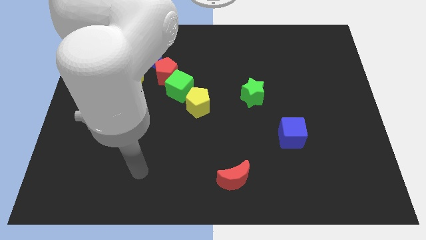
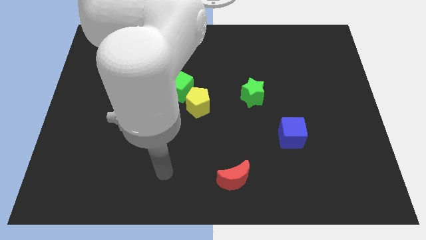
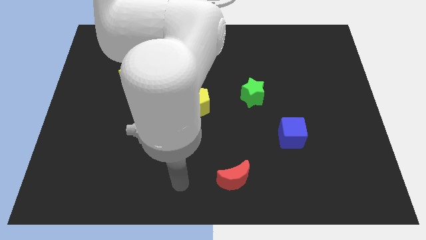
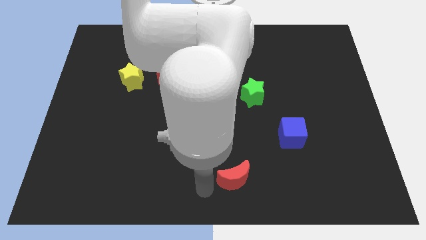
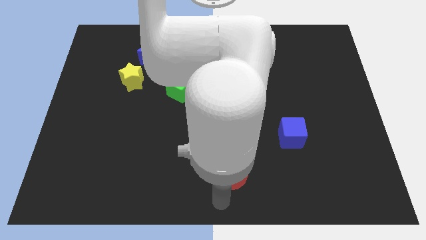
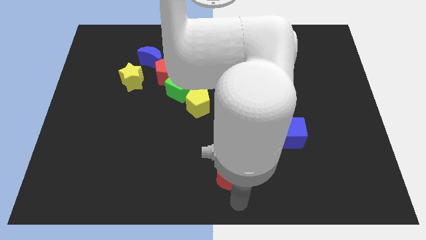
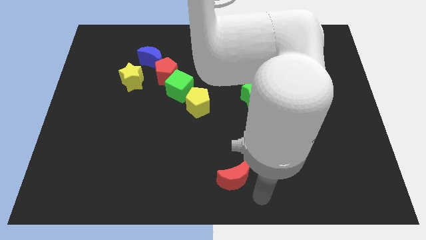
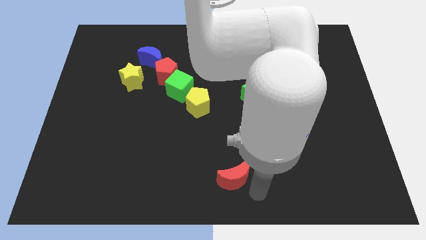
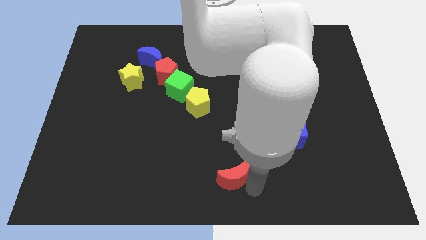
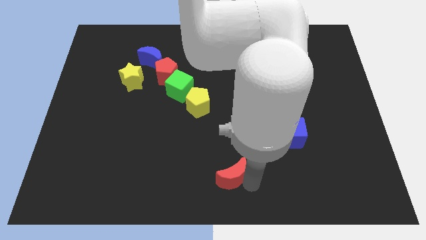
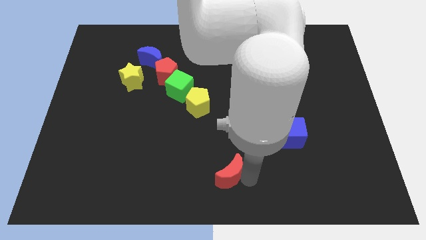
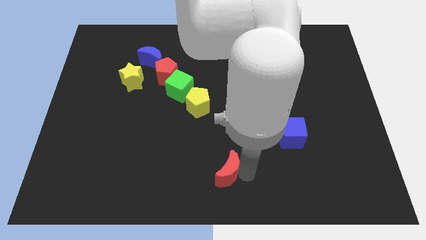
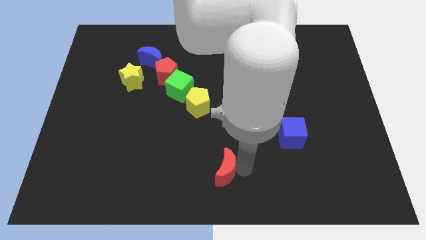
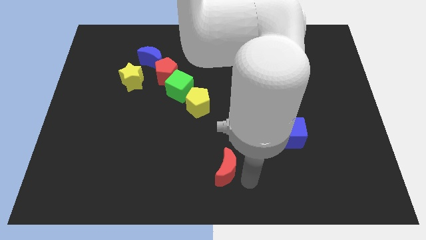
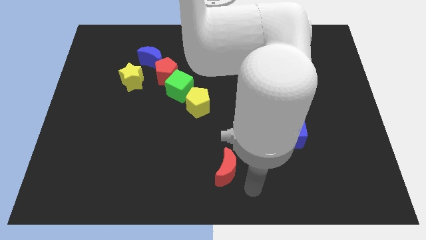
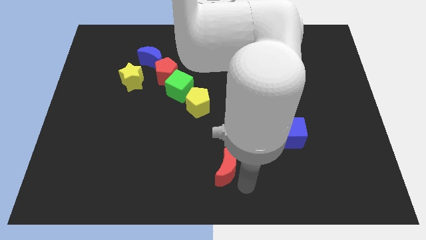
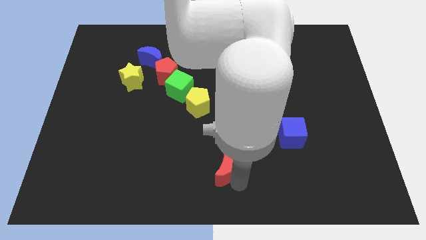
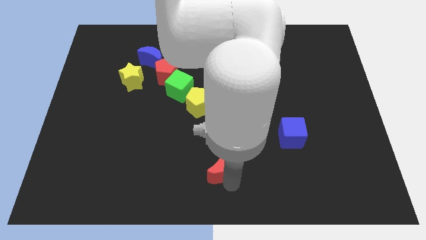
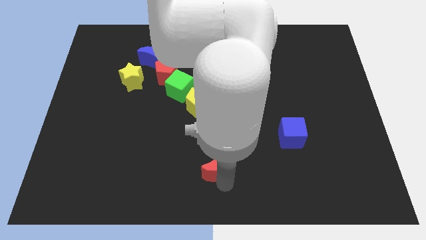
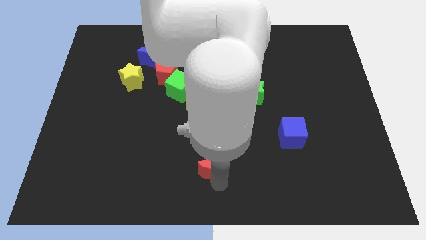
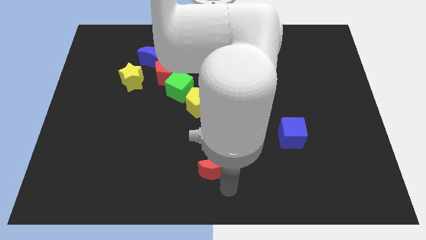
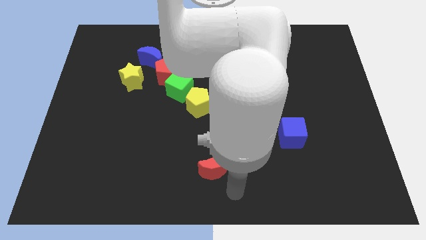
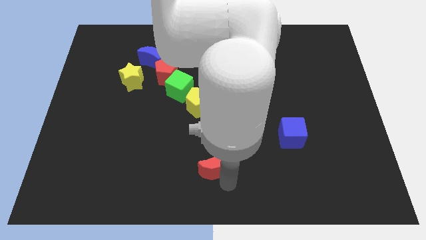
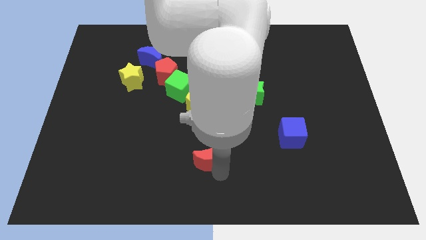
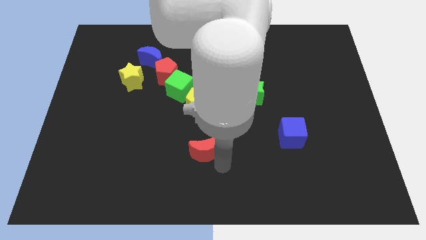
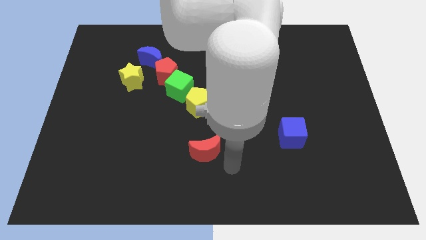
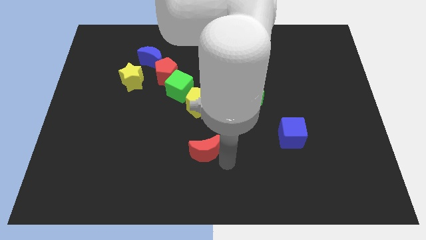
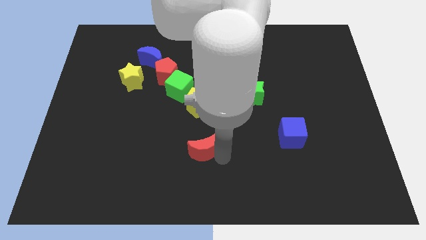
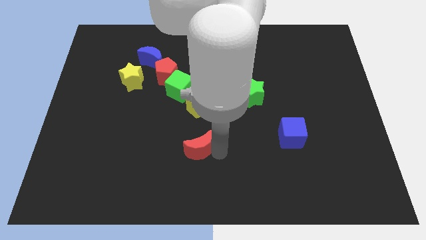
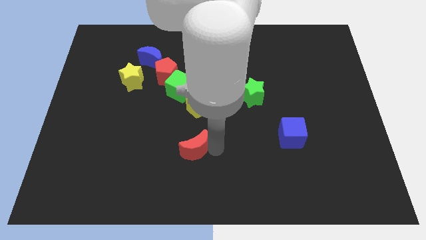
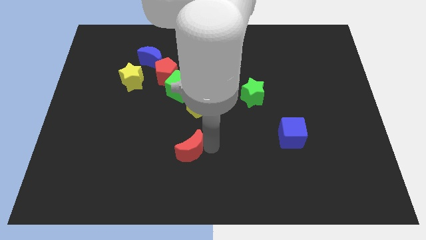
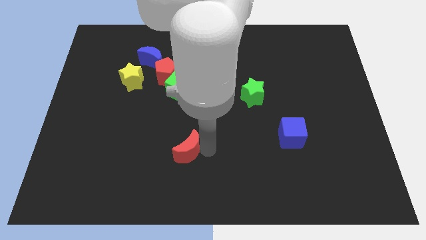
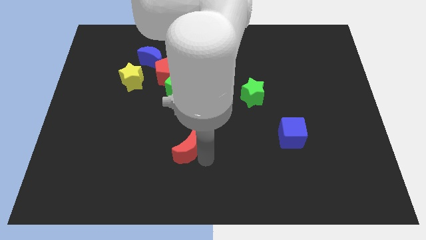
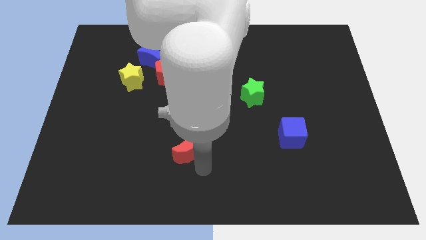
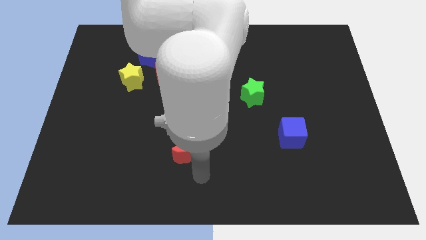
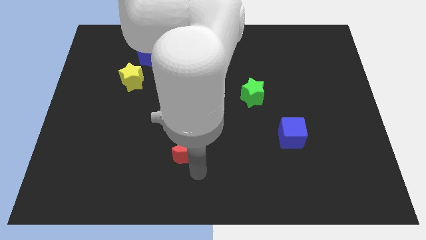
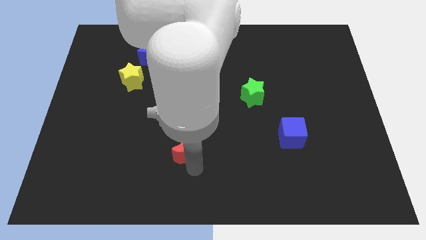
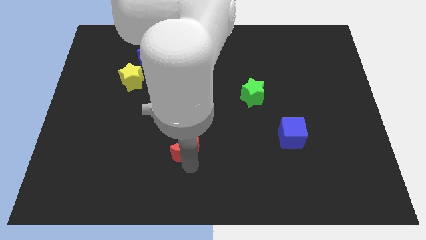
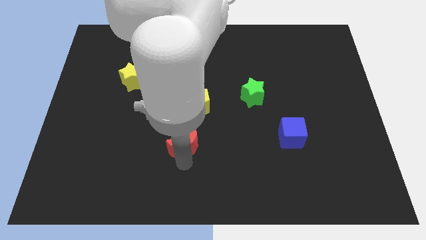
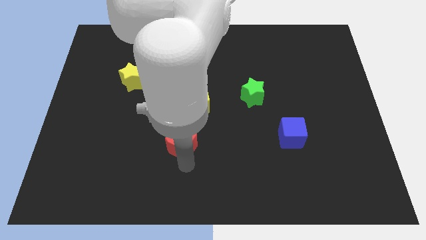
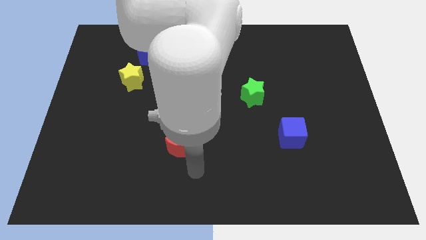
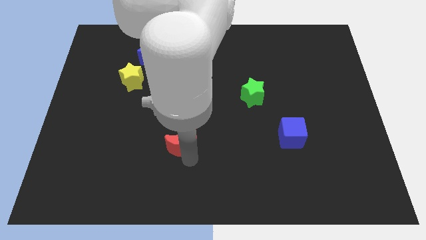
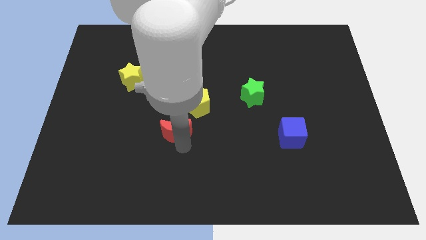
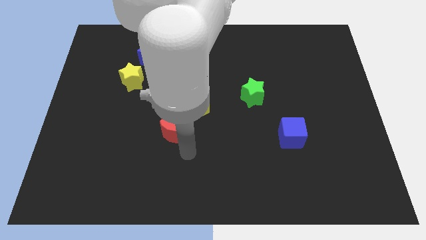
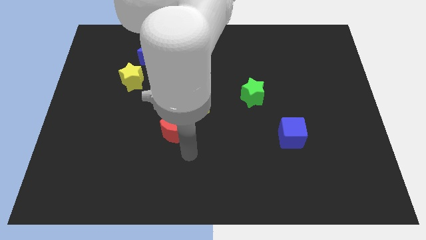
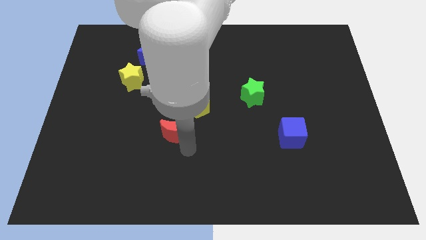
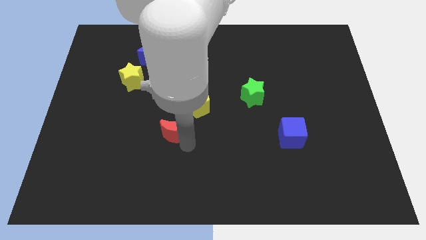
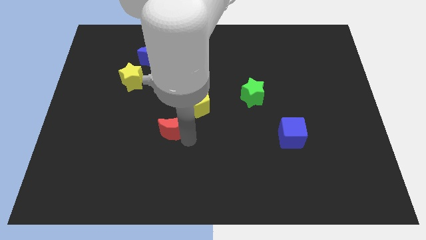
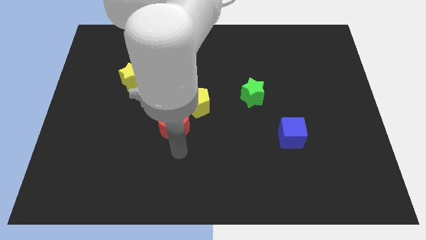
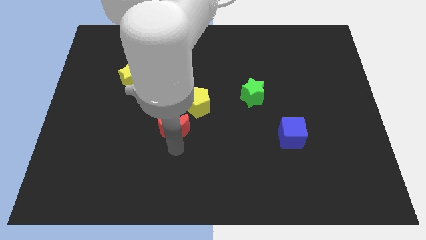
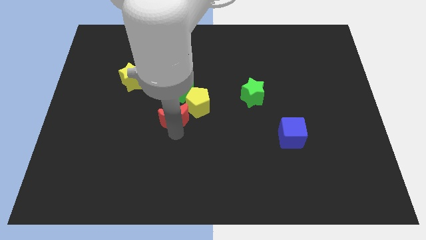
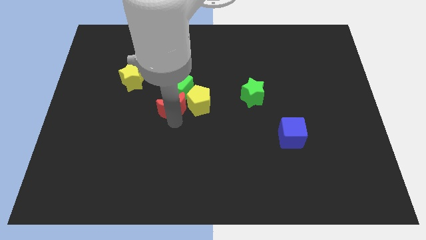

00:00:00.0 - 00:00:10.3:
slide the red moon next to the green cube

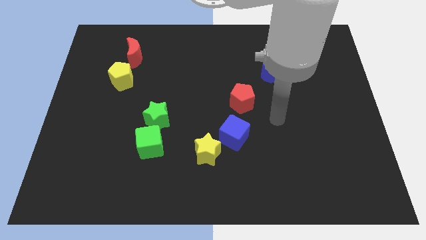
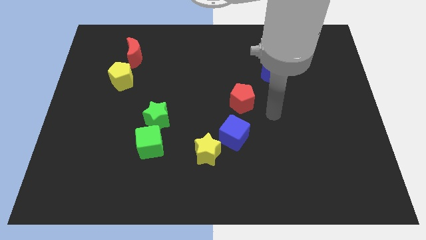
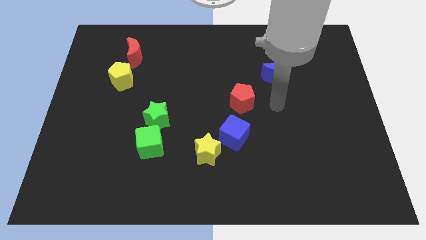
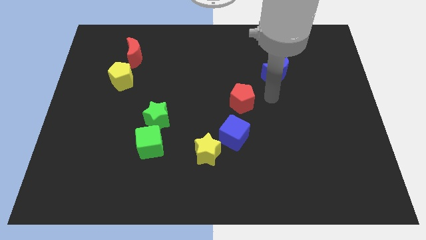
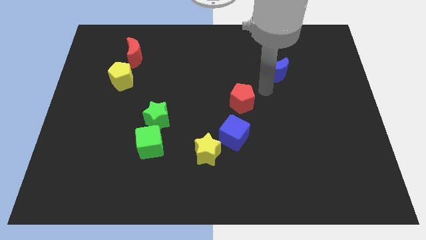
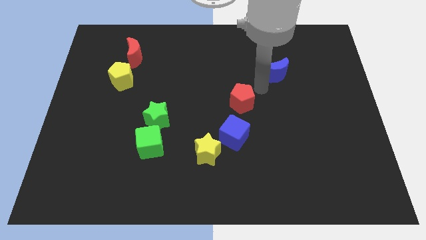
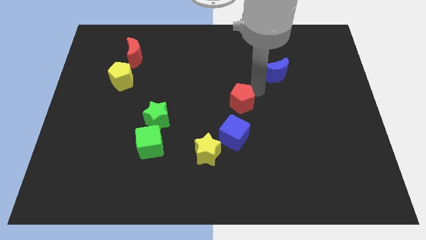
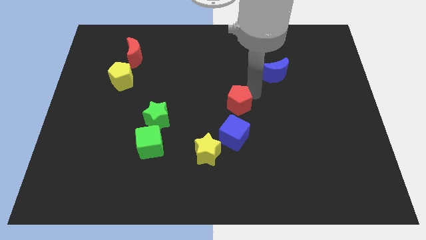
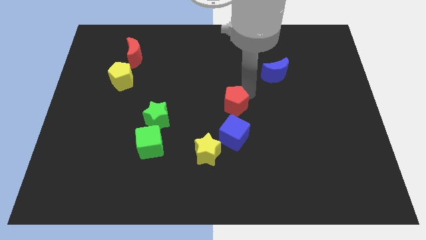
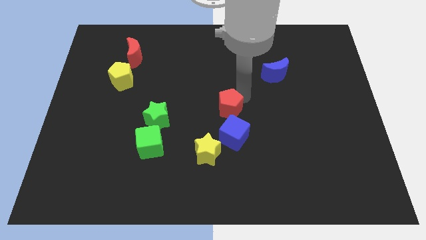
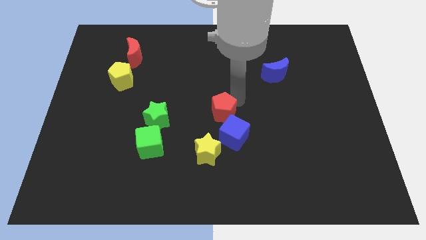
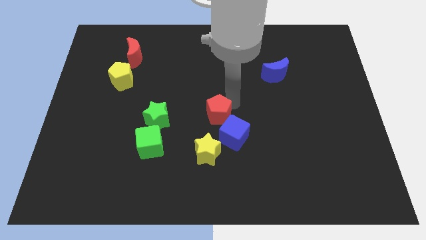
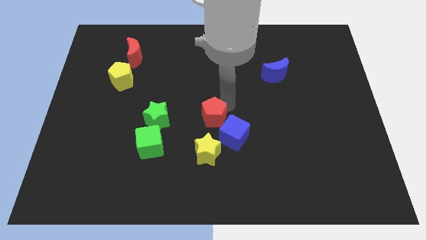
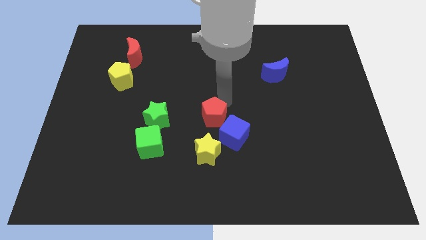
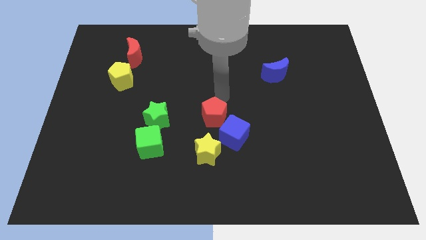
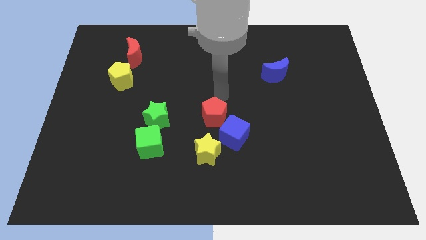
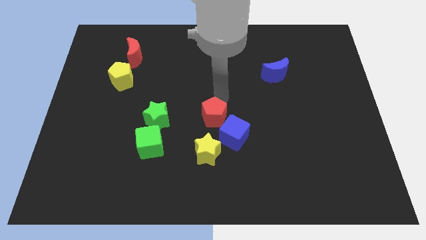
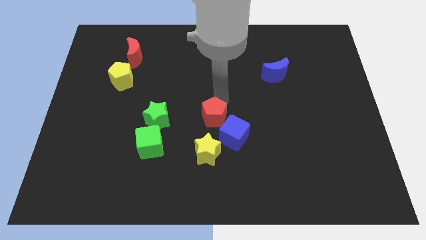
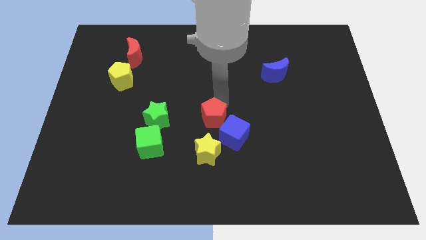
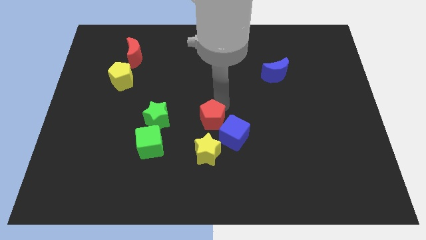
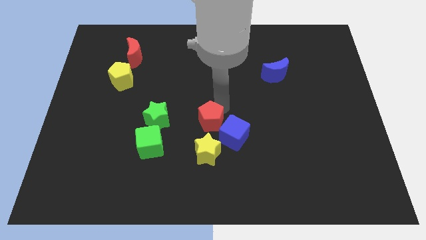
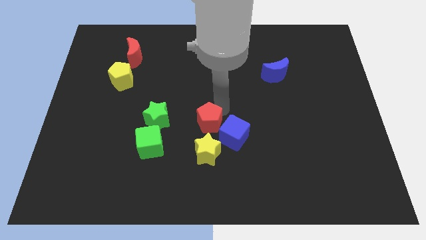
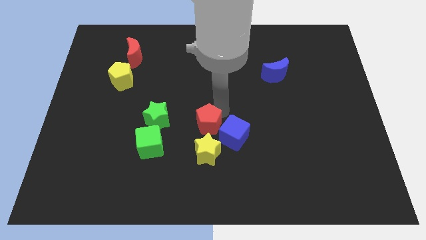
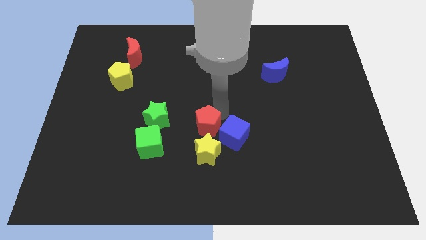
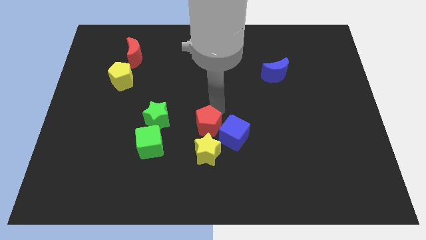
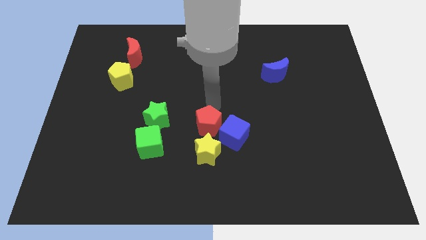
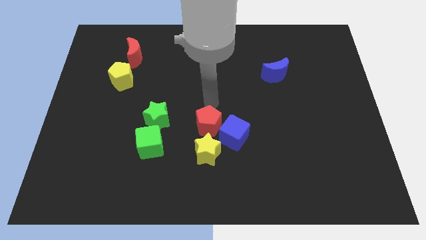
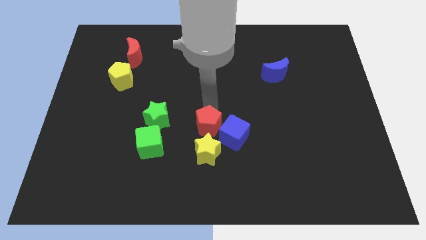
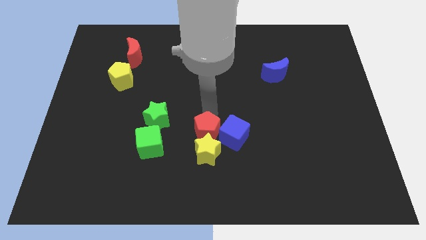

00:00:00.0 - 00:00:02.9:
put the red pentagon close to the yellow star
